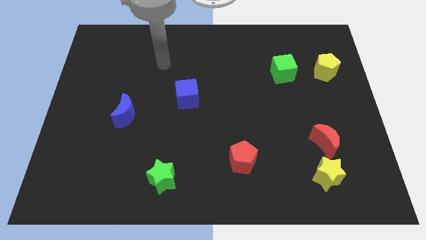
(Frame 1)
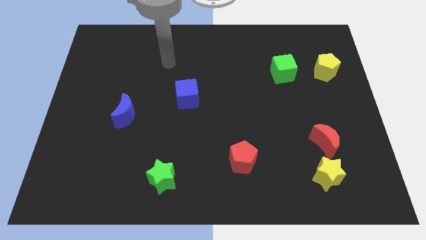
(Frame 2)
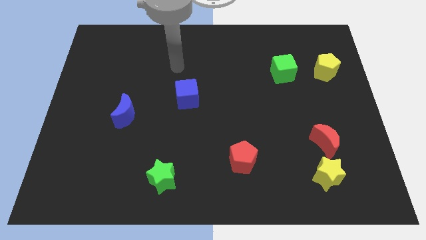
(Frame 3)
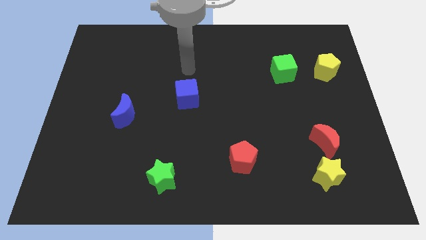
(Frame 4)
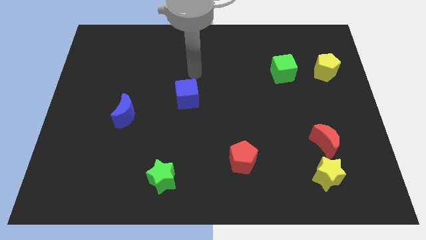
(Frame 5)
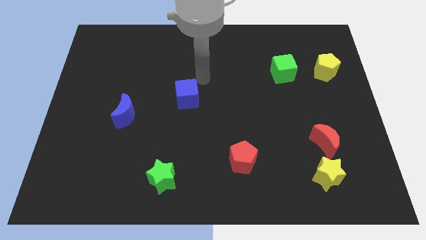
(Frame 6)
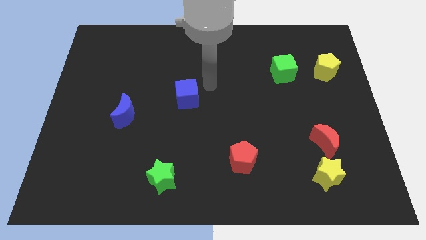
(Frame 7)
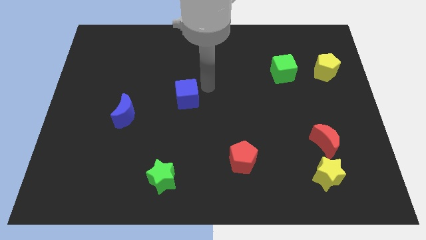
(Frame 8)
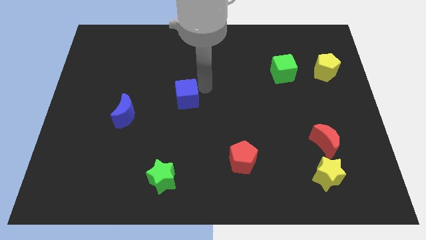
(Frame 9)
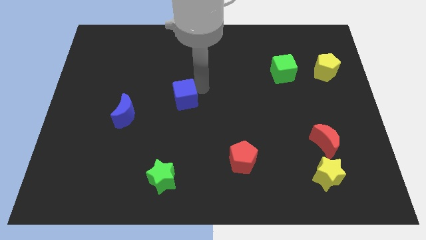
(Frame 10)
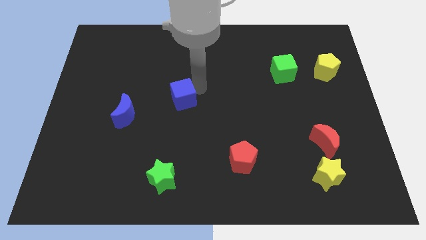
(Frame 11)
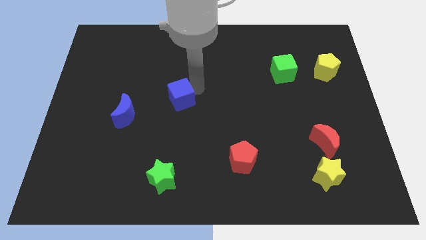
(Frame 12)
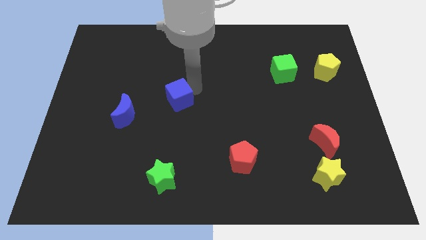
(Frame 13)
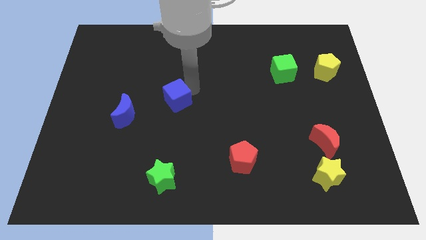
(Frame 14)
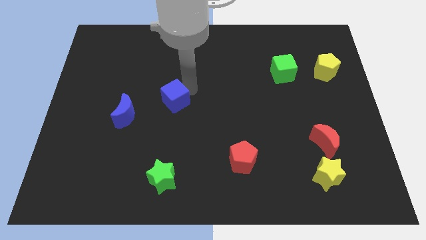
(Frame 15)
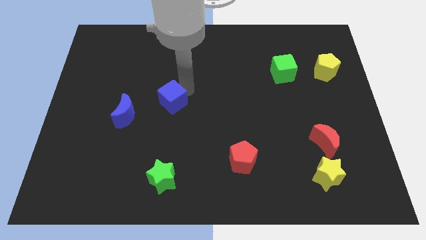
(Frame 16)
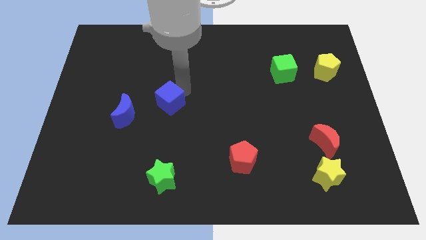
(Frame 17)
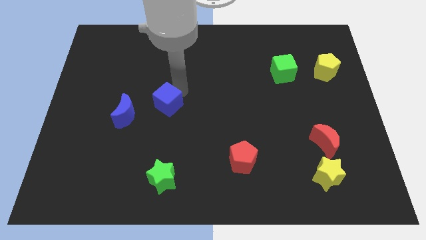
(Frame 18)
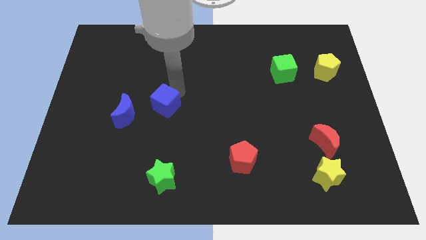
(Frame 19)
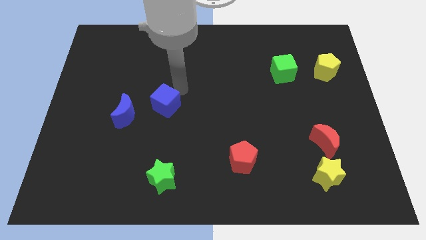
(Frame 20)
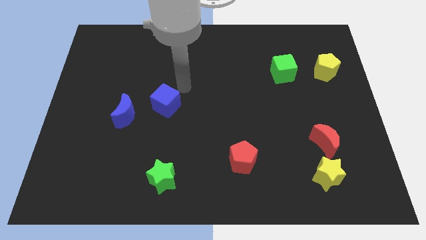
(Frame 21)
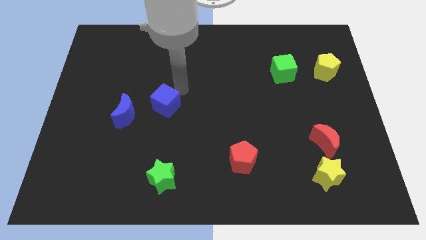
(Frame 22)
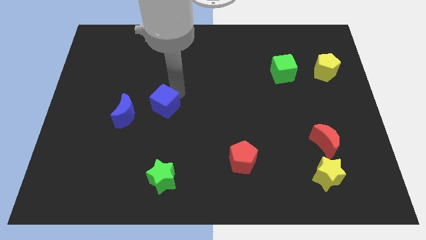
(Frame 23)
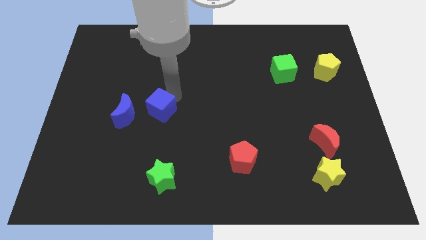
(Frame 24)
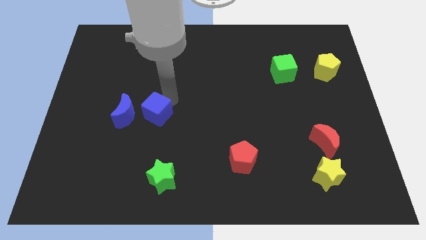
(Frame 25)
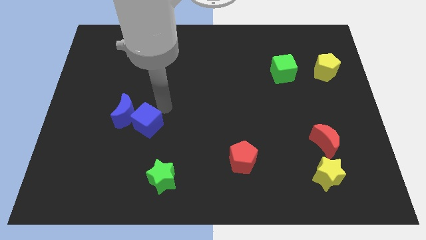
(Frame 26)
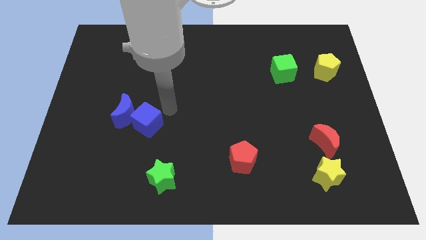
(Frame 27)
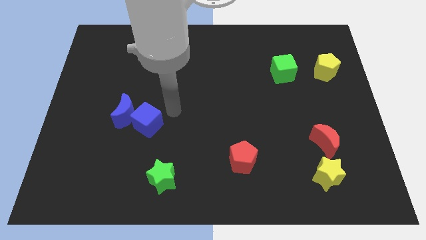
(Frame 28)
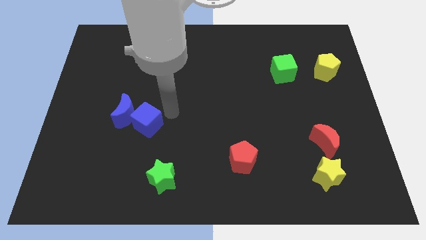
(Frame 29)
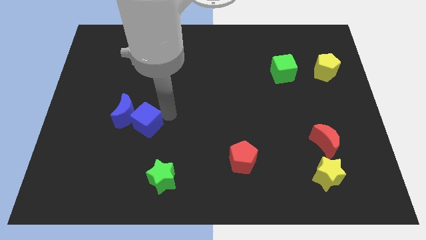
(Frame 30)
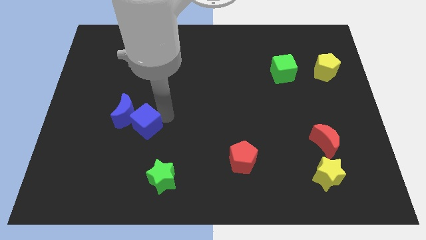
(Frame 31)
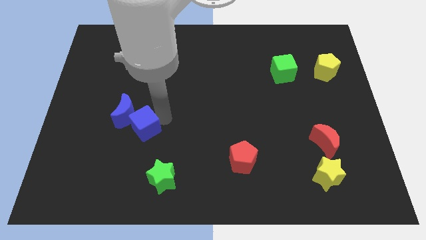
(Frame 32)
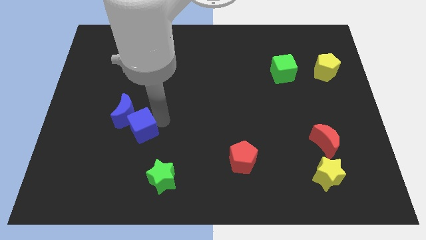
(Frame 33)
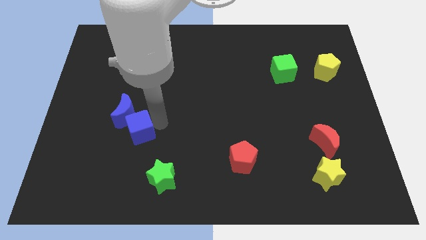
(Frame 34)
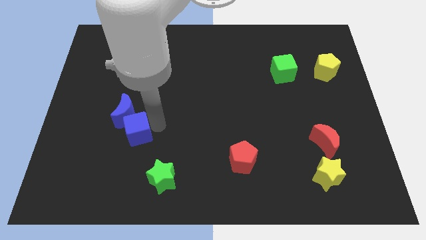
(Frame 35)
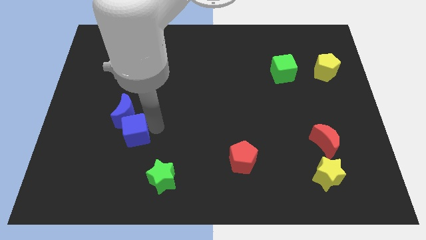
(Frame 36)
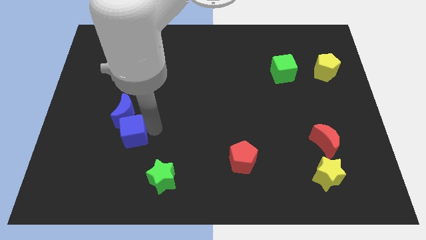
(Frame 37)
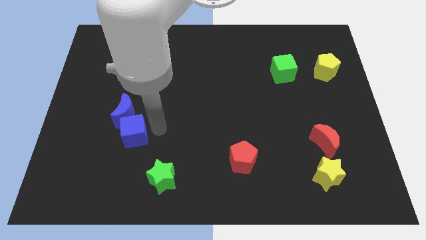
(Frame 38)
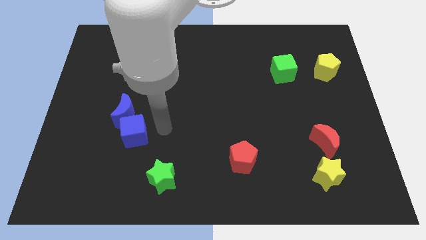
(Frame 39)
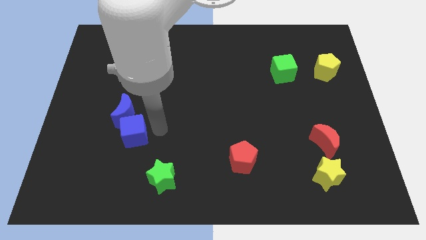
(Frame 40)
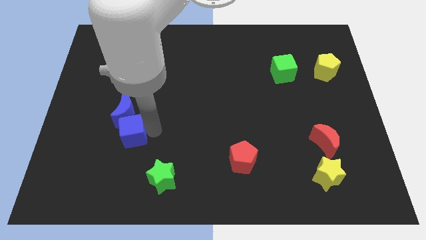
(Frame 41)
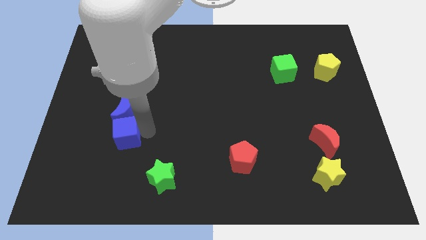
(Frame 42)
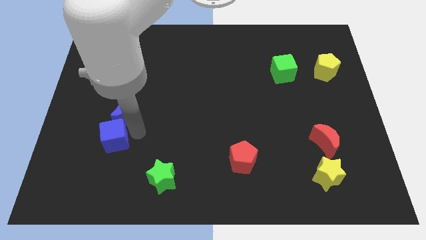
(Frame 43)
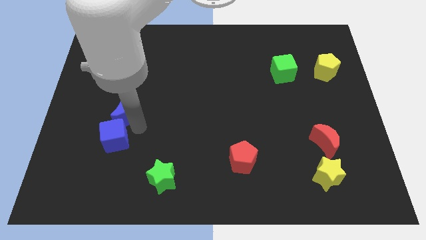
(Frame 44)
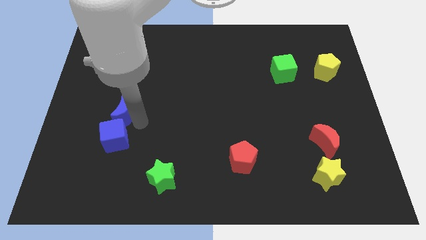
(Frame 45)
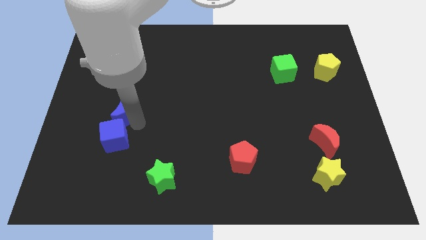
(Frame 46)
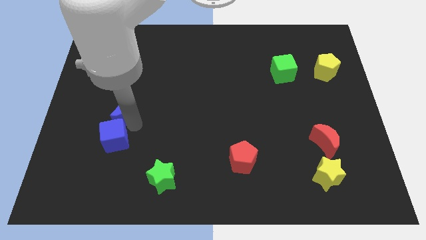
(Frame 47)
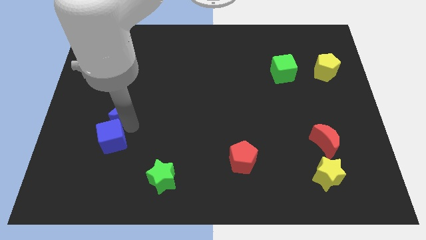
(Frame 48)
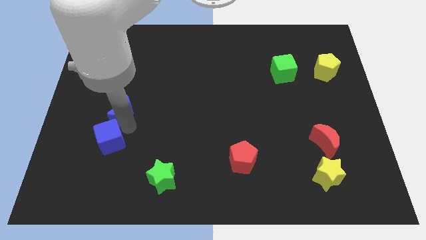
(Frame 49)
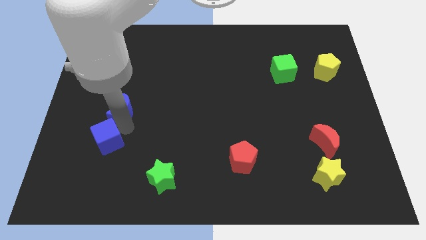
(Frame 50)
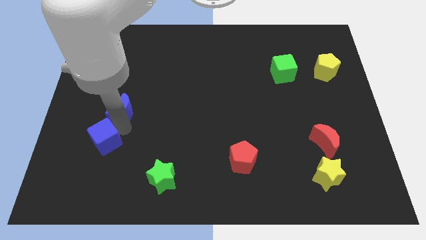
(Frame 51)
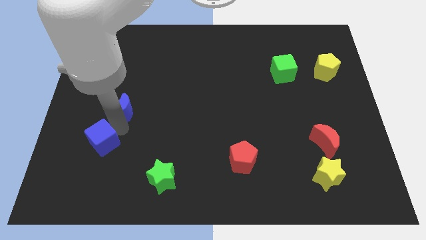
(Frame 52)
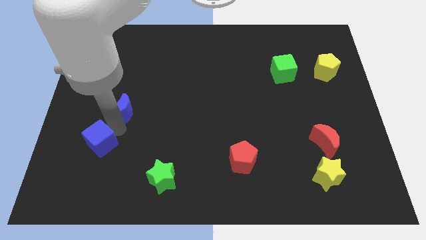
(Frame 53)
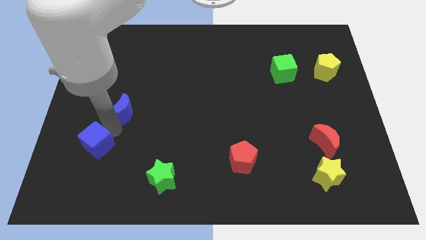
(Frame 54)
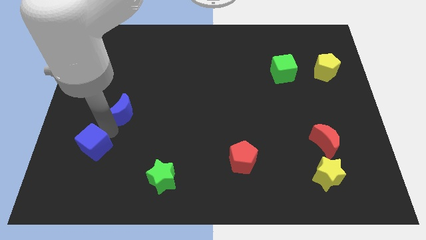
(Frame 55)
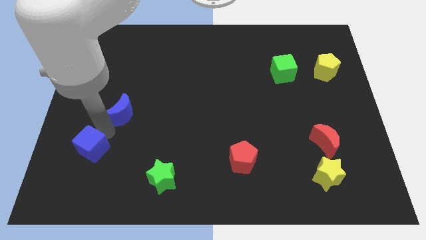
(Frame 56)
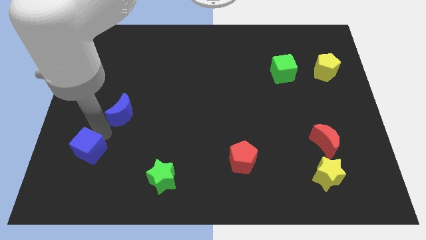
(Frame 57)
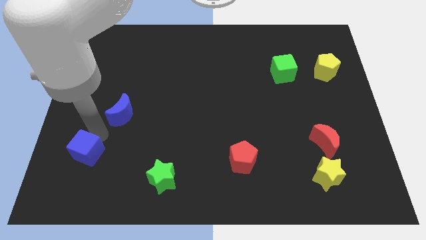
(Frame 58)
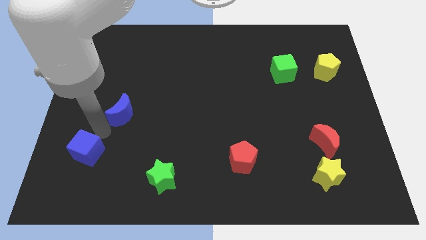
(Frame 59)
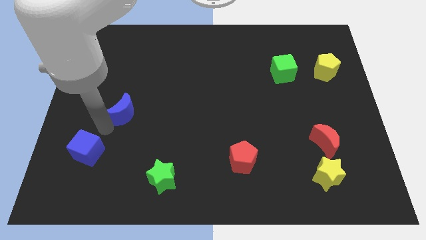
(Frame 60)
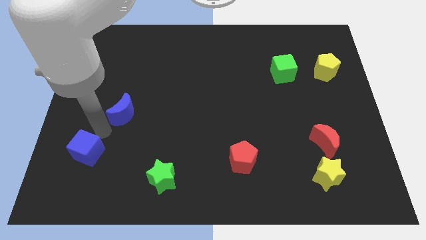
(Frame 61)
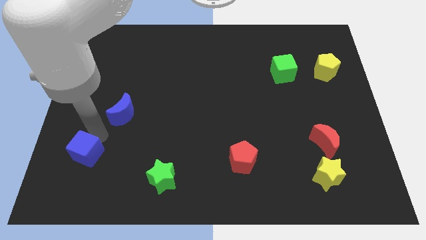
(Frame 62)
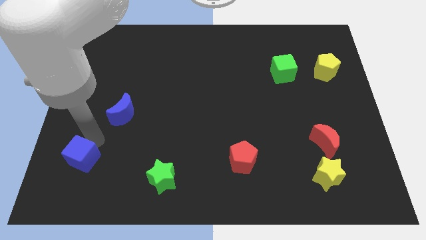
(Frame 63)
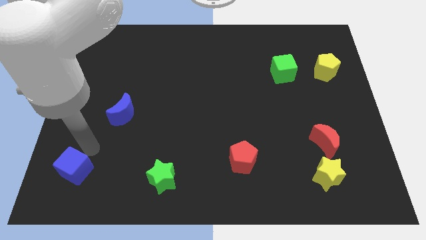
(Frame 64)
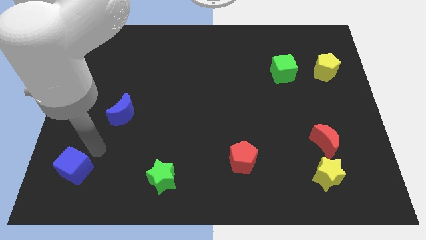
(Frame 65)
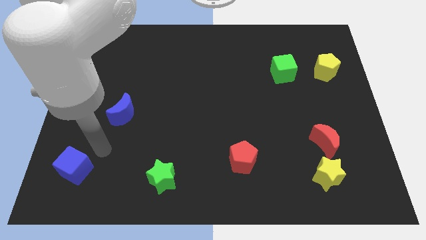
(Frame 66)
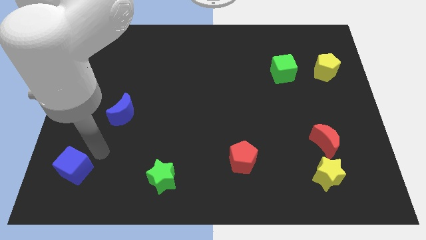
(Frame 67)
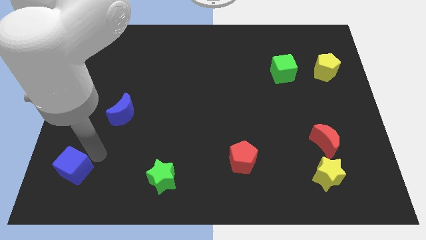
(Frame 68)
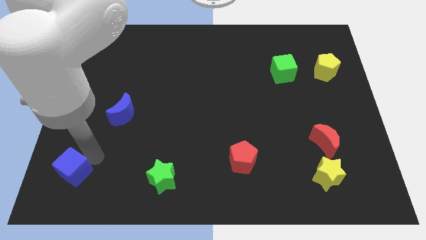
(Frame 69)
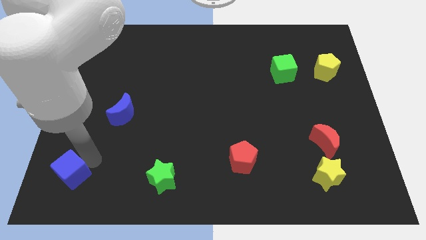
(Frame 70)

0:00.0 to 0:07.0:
put the blue cube to the lower left corner
